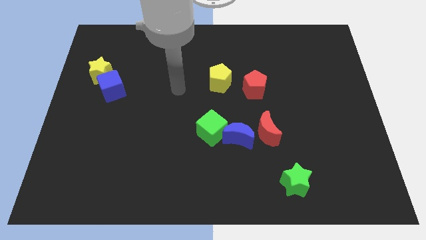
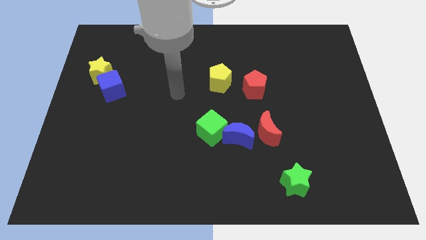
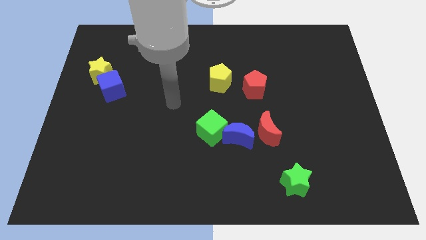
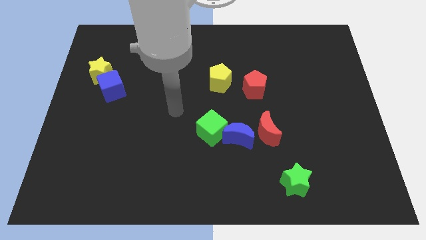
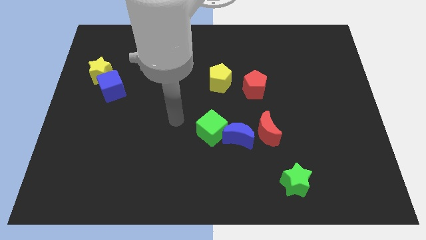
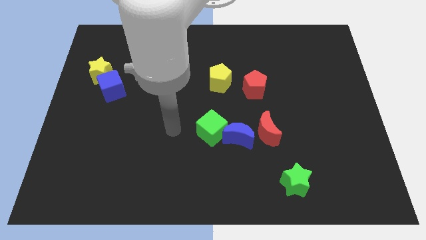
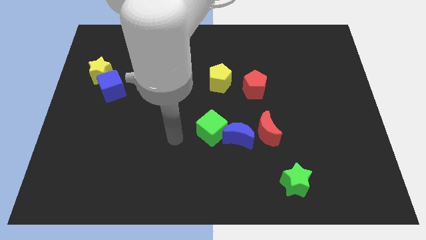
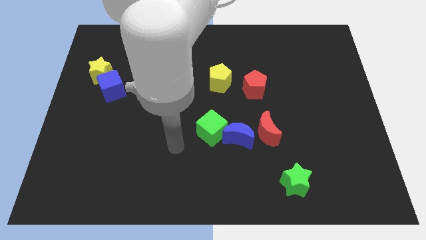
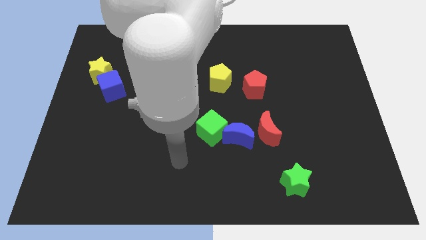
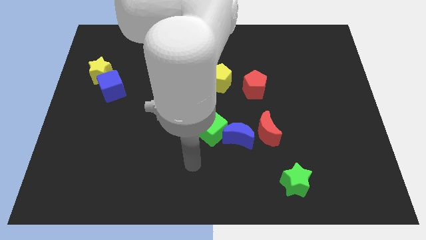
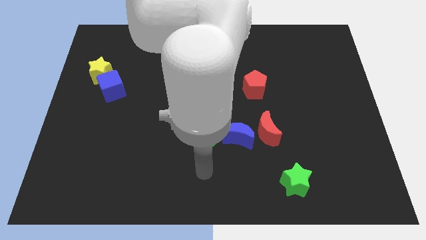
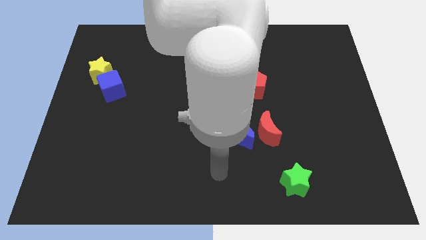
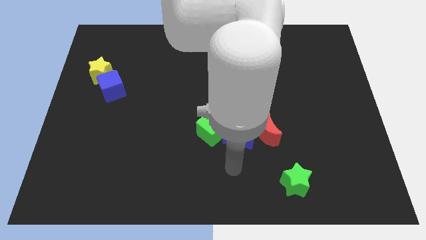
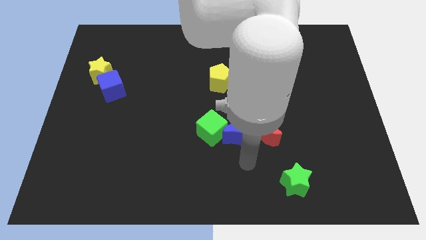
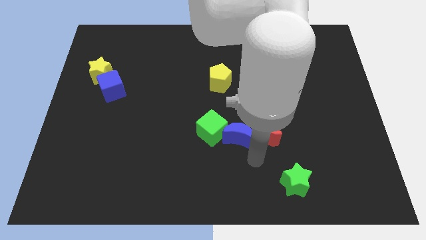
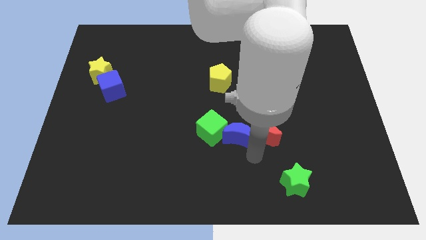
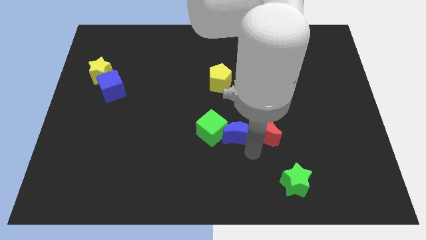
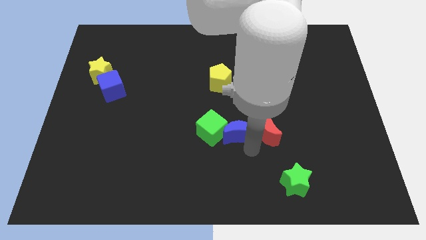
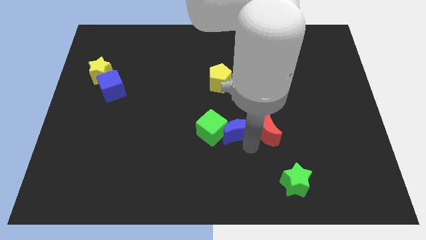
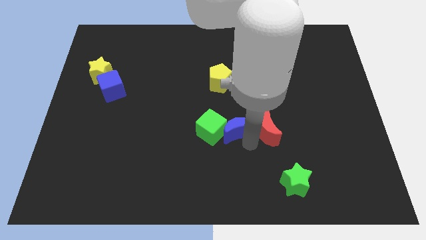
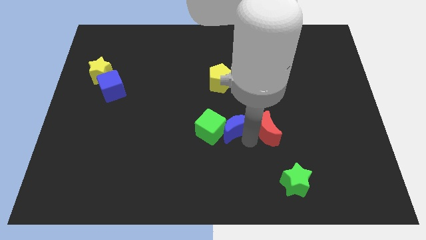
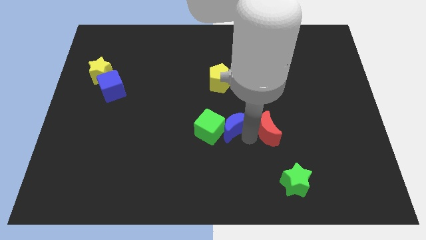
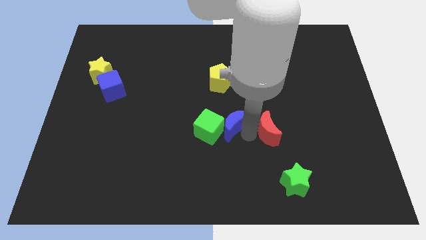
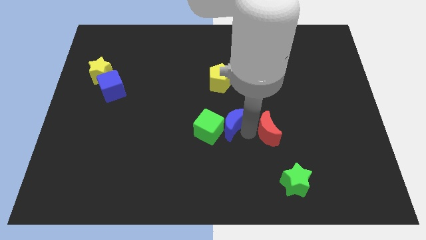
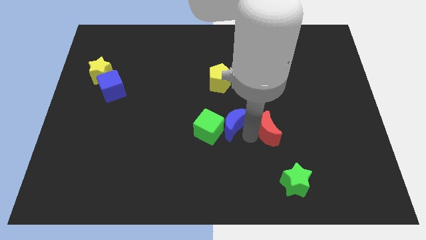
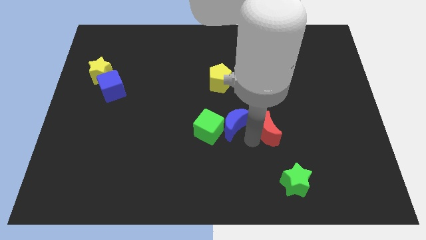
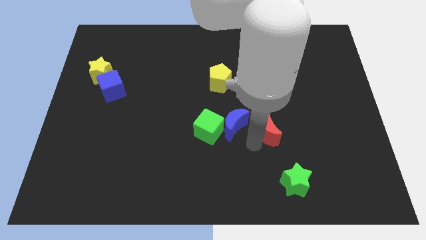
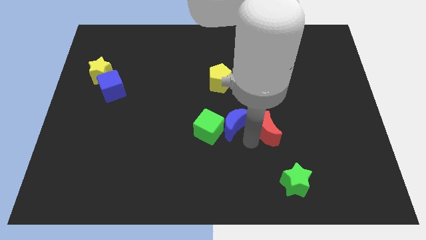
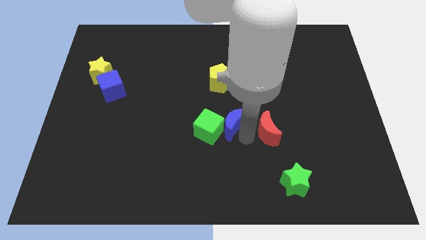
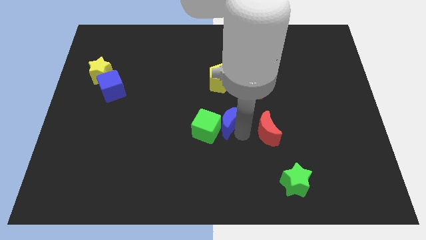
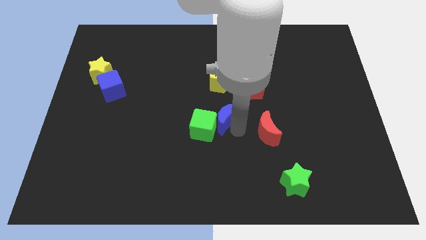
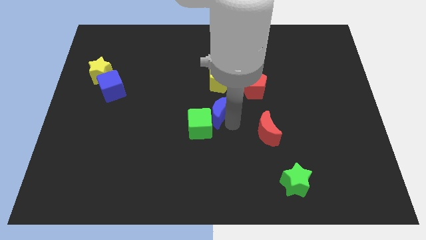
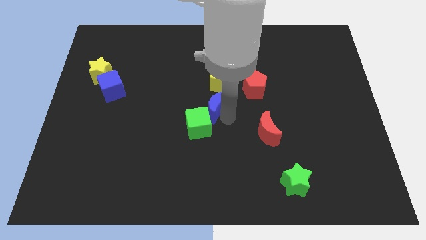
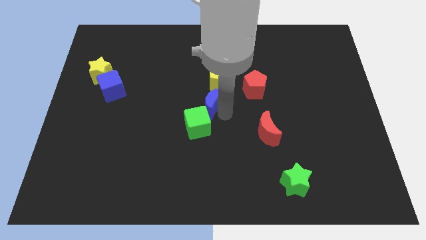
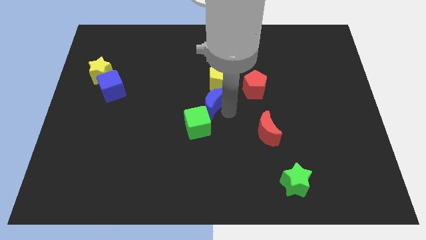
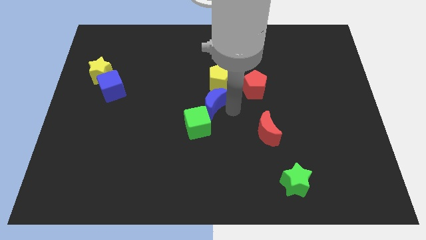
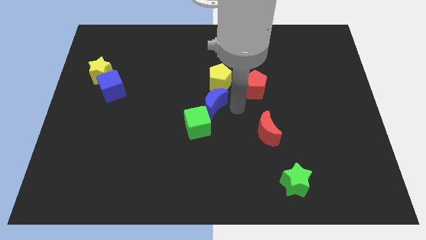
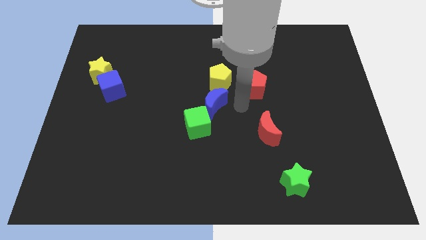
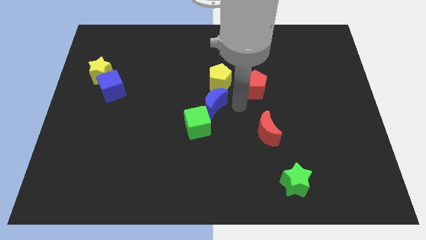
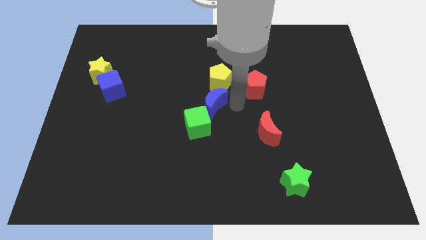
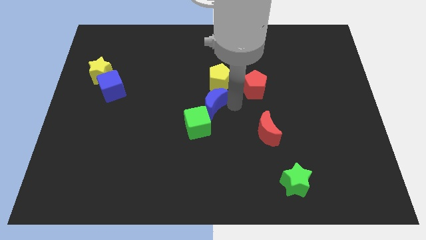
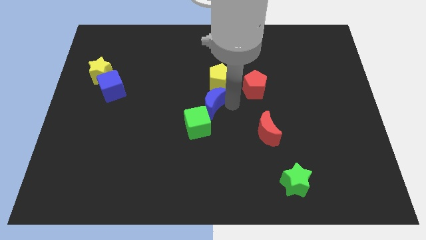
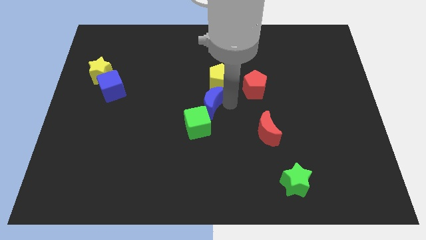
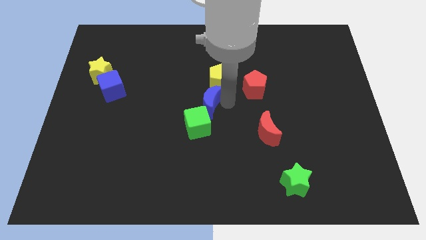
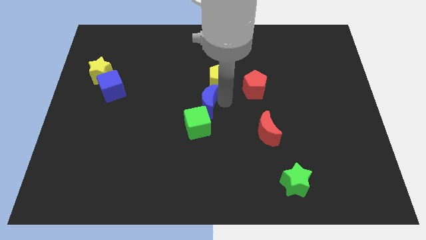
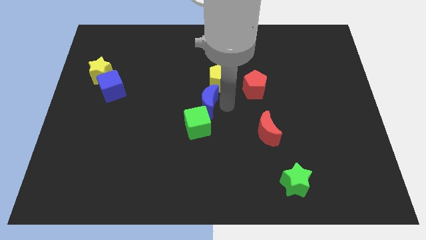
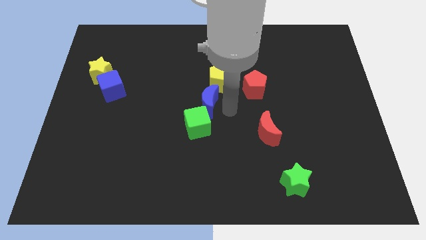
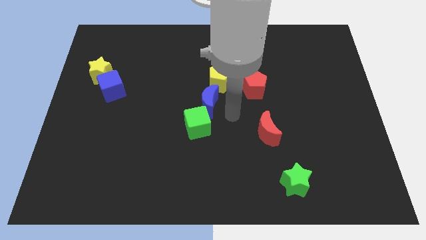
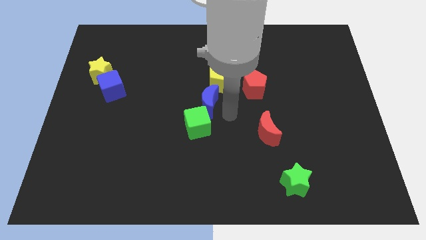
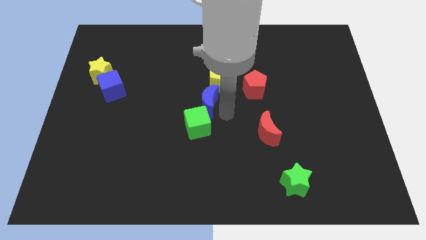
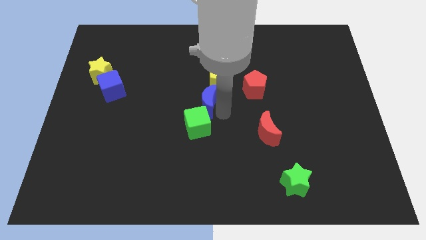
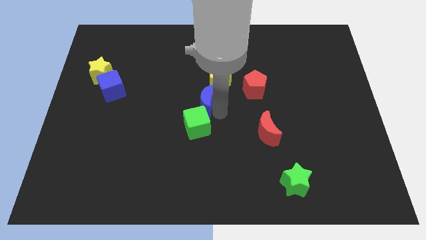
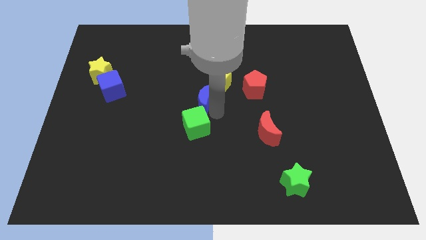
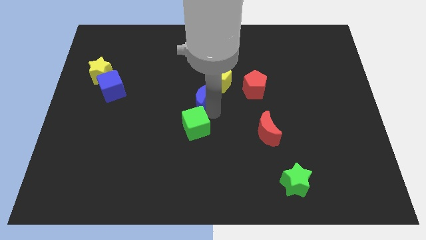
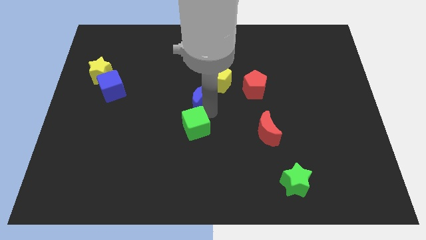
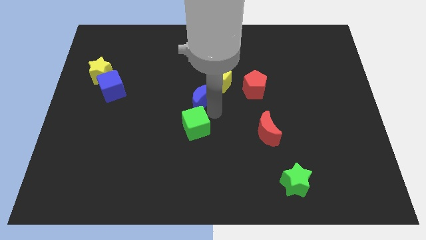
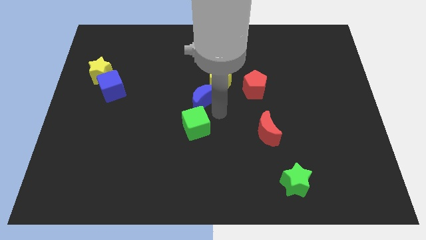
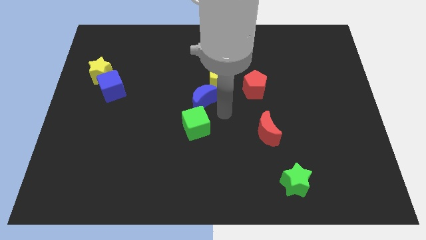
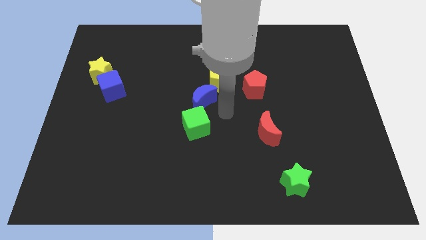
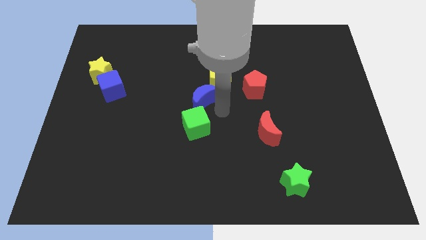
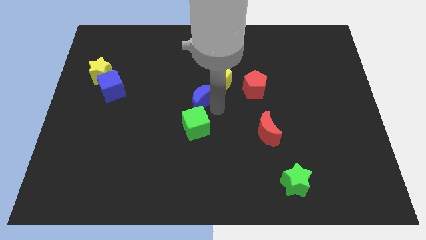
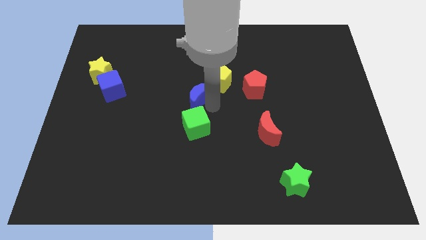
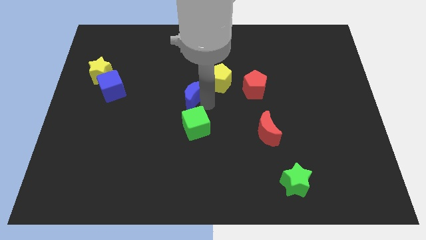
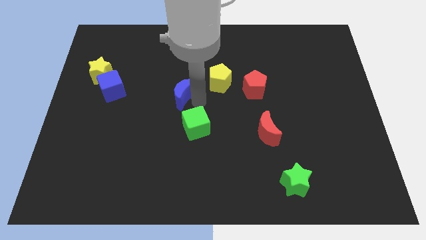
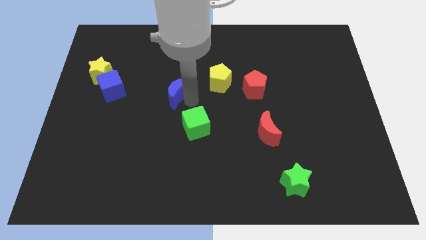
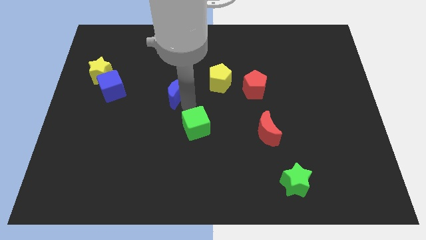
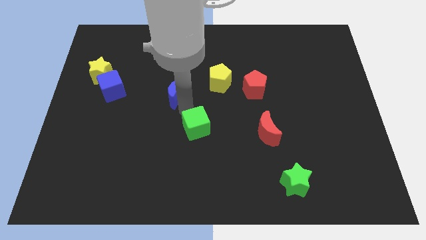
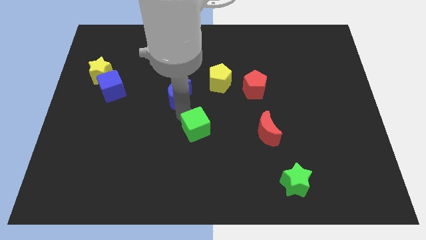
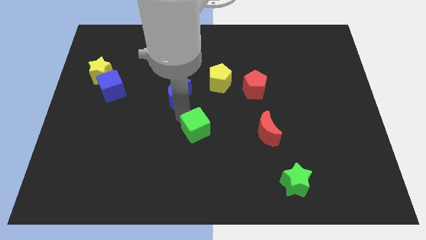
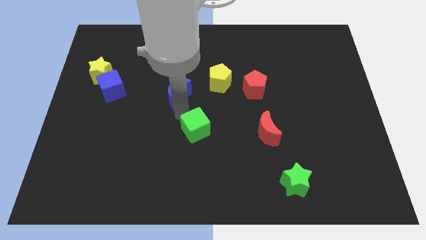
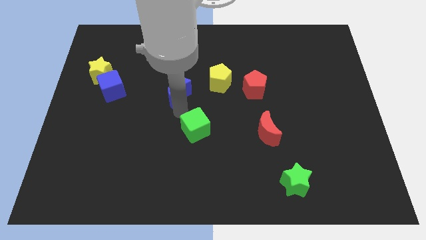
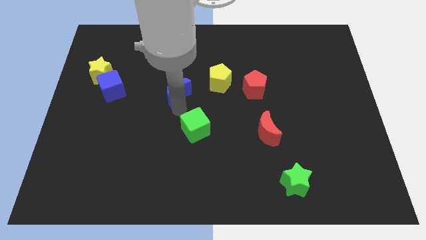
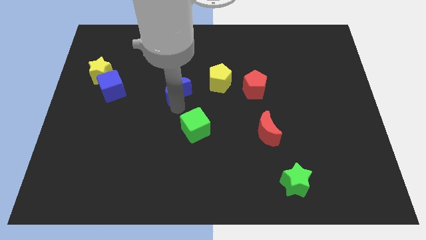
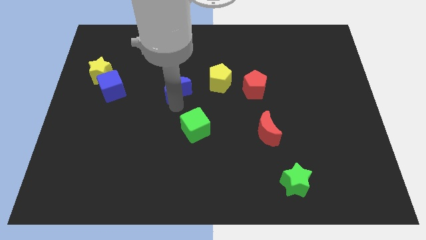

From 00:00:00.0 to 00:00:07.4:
move the blue moon diagonally up and to the left

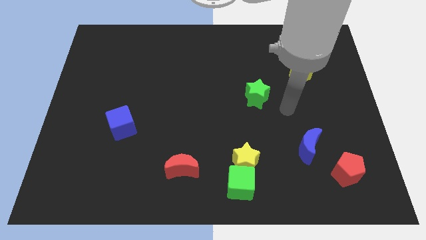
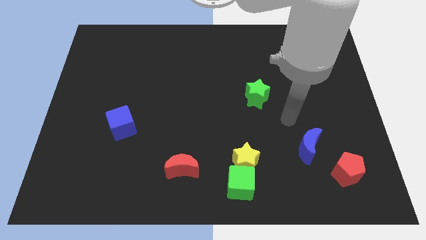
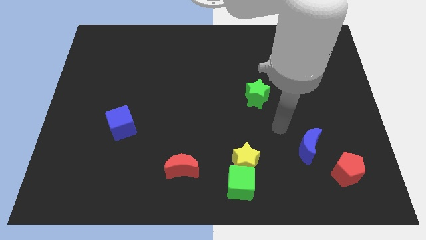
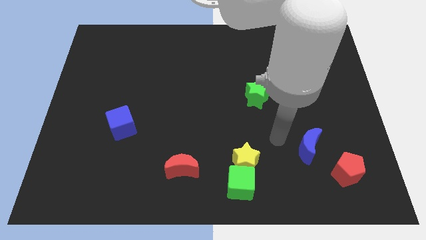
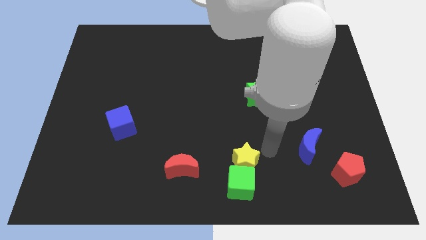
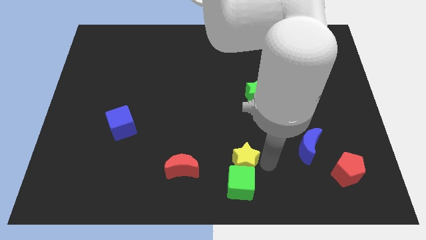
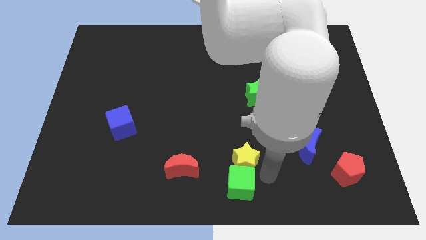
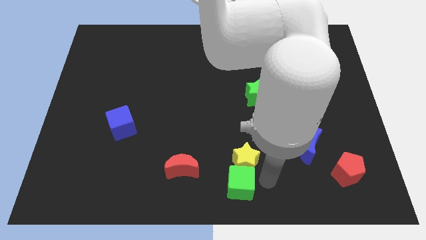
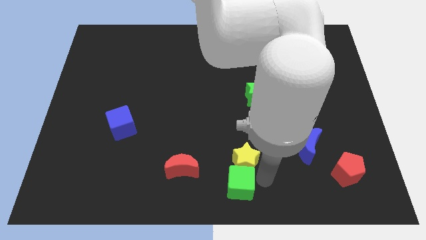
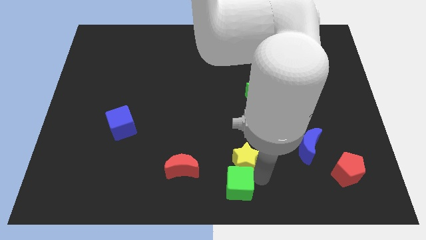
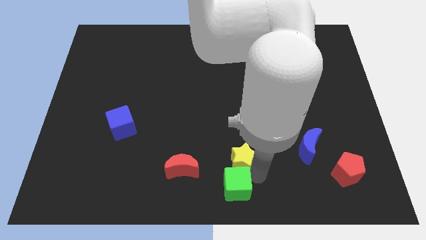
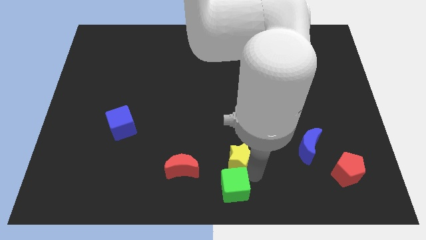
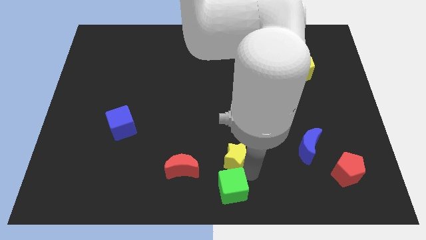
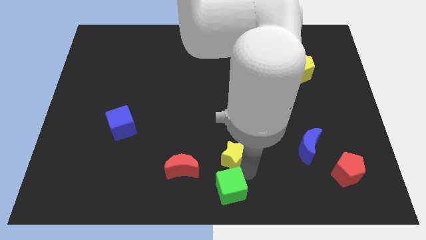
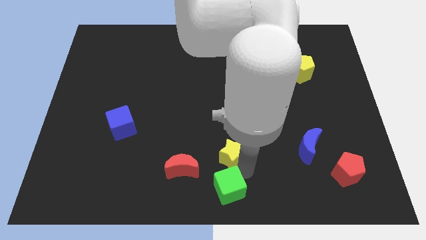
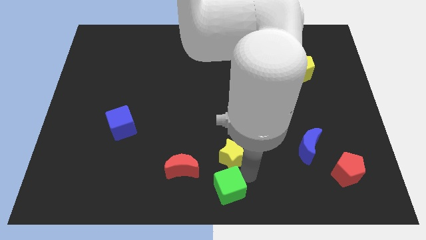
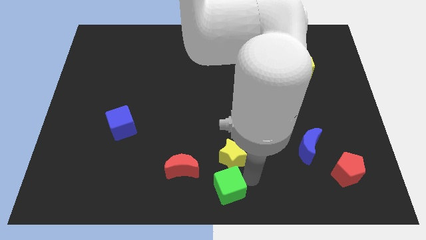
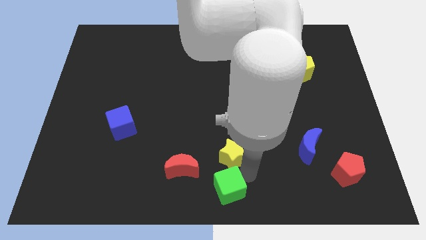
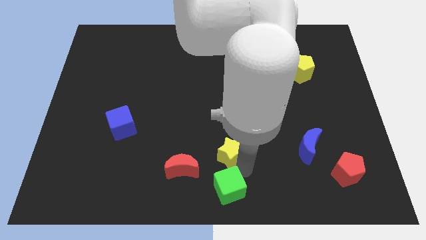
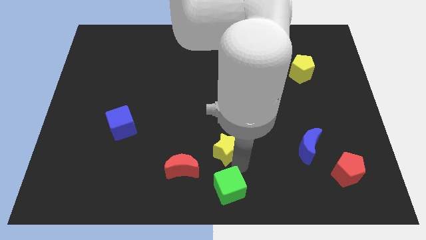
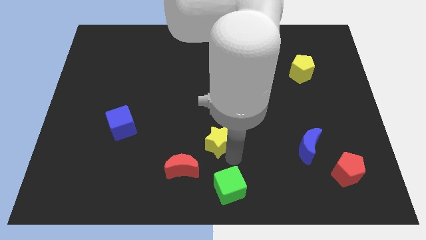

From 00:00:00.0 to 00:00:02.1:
move the yellow star up and left diagonally a little
